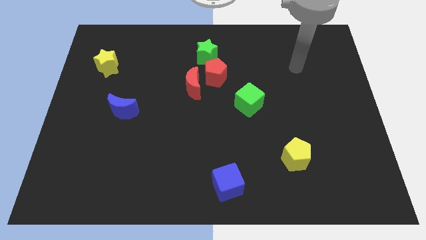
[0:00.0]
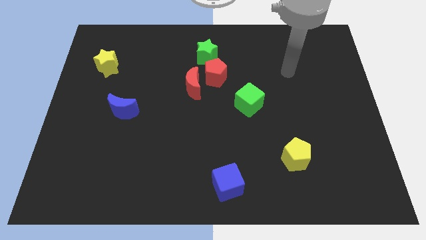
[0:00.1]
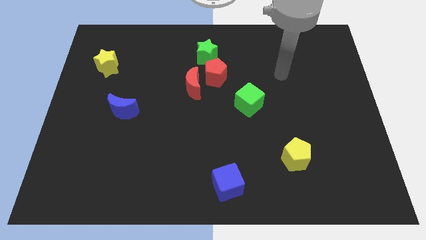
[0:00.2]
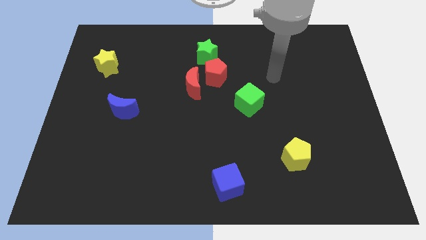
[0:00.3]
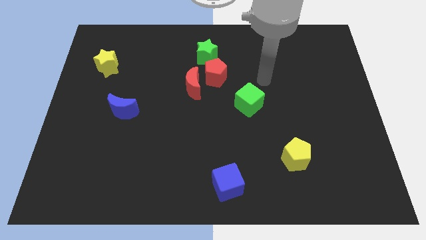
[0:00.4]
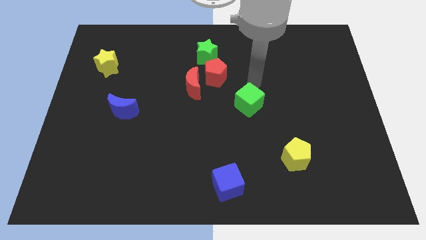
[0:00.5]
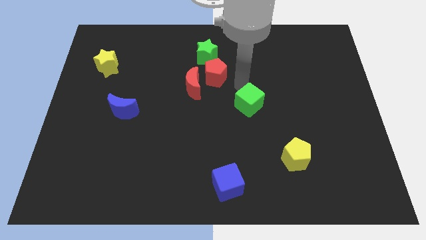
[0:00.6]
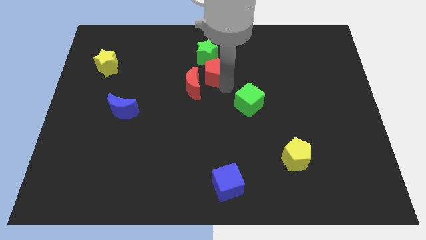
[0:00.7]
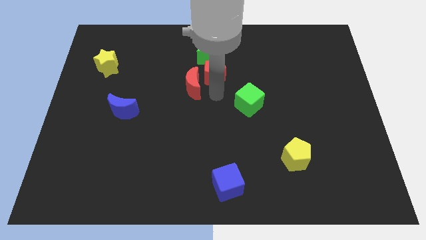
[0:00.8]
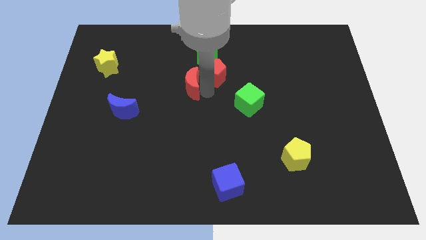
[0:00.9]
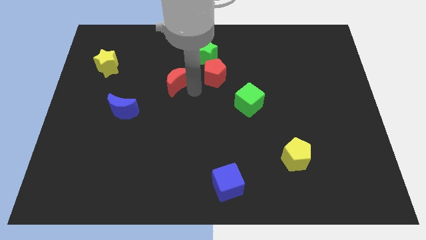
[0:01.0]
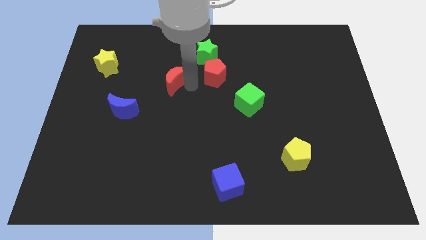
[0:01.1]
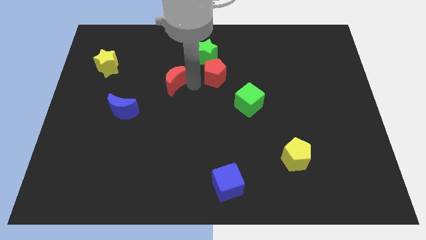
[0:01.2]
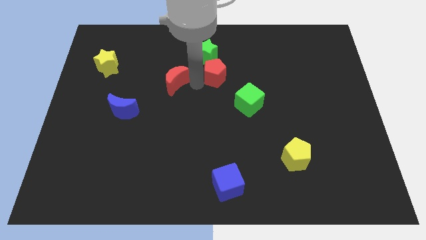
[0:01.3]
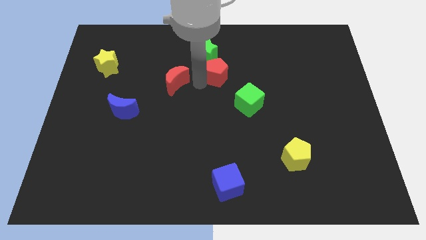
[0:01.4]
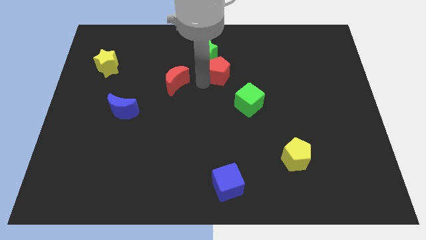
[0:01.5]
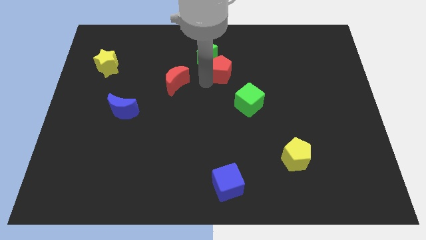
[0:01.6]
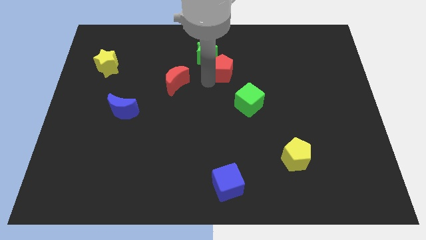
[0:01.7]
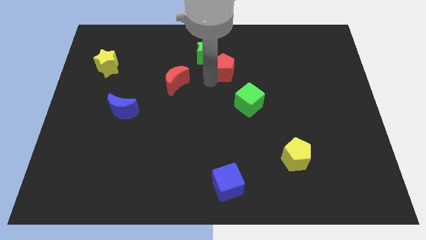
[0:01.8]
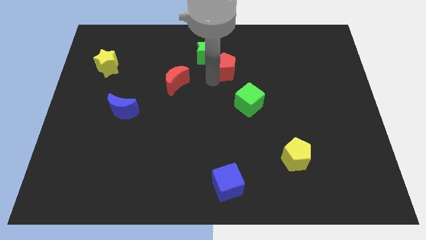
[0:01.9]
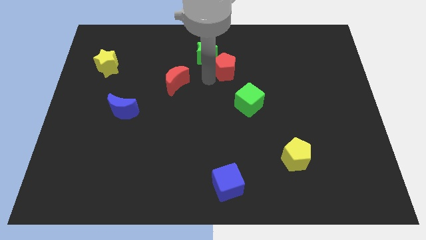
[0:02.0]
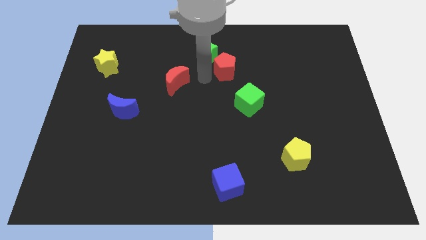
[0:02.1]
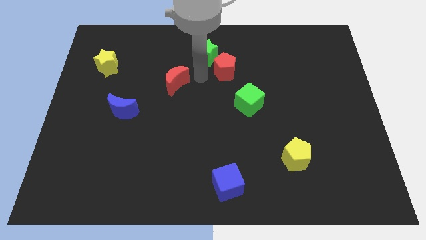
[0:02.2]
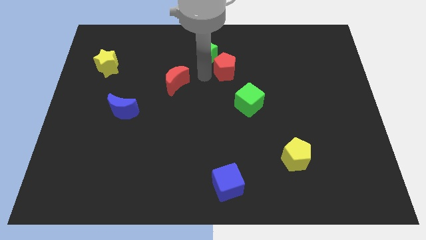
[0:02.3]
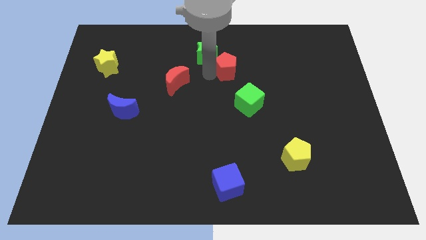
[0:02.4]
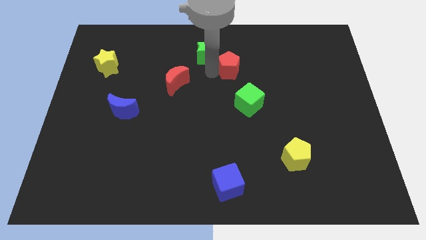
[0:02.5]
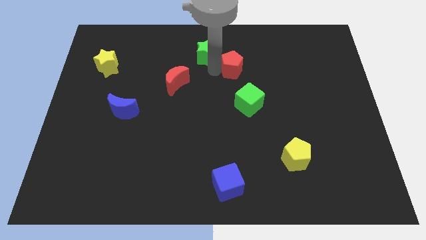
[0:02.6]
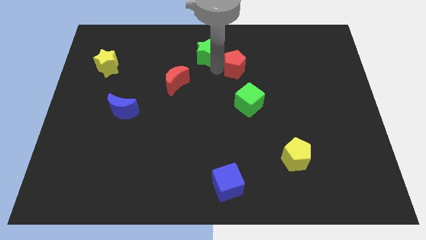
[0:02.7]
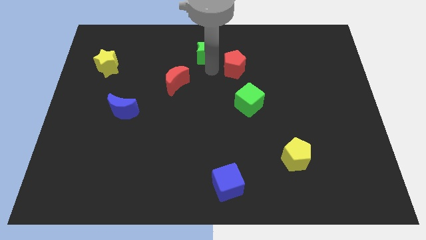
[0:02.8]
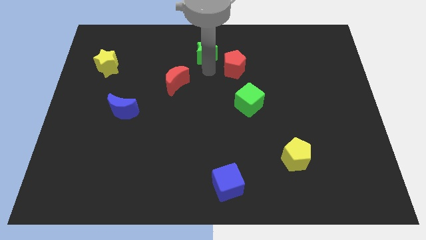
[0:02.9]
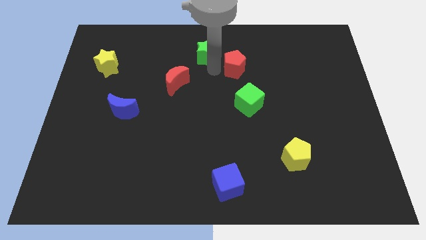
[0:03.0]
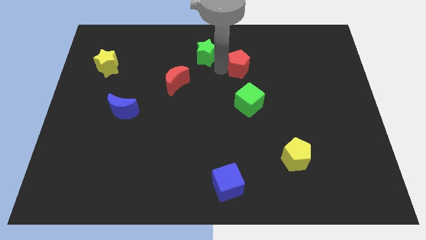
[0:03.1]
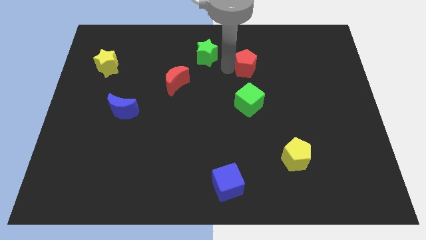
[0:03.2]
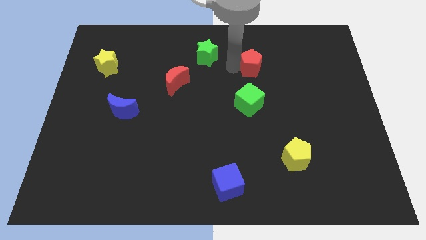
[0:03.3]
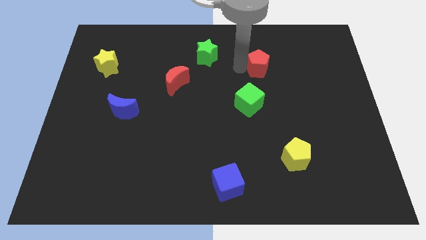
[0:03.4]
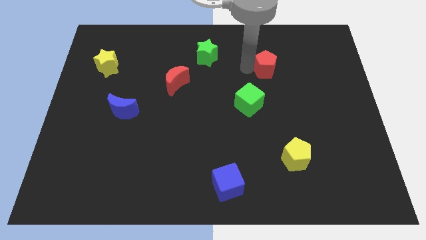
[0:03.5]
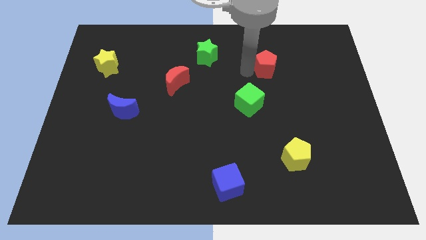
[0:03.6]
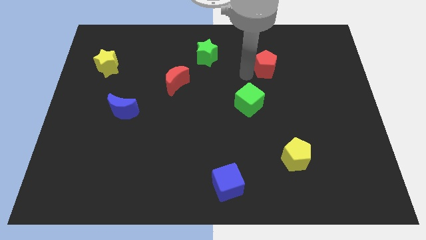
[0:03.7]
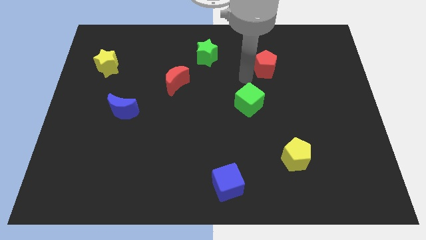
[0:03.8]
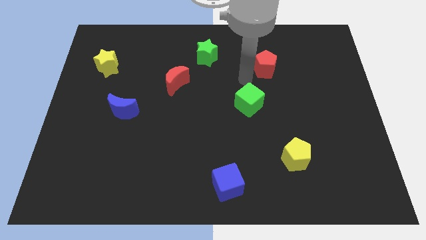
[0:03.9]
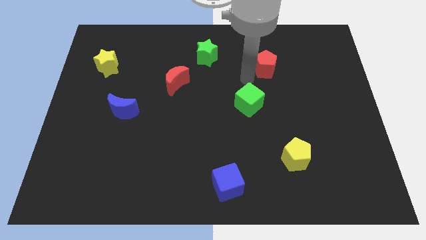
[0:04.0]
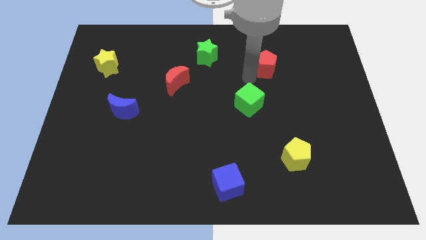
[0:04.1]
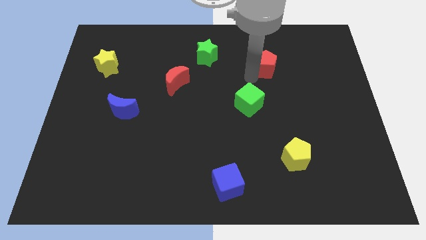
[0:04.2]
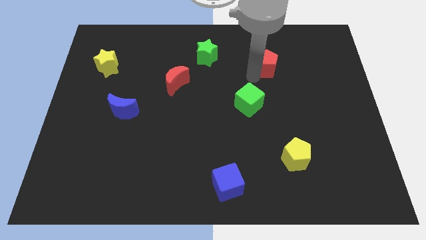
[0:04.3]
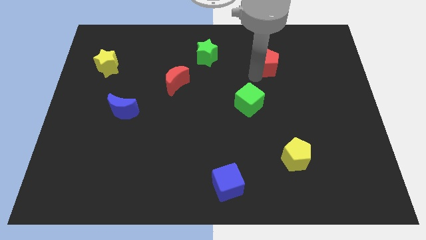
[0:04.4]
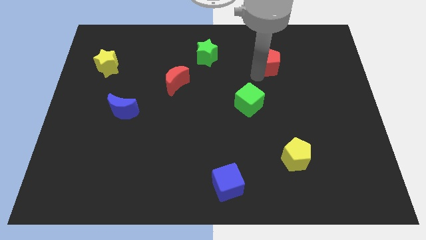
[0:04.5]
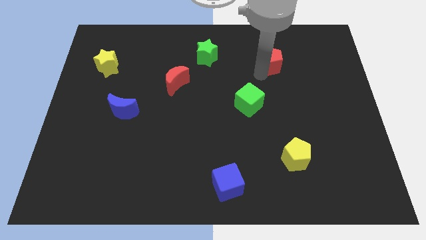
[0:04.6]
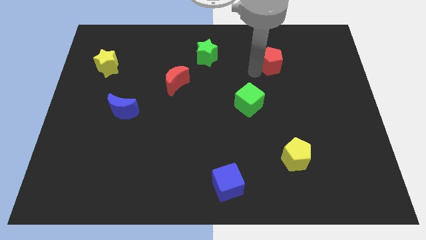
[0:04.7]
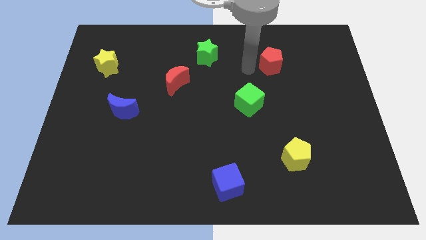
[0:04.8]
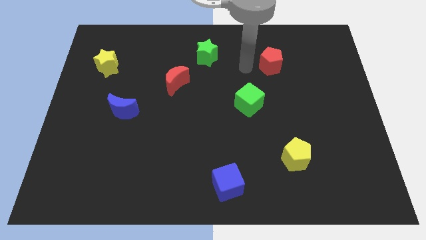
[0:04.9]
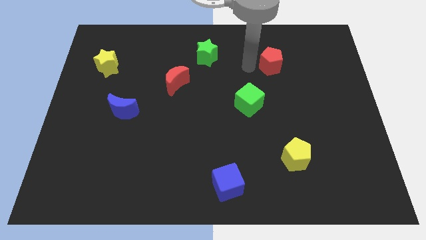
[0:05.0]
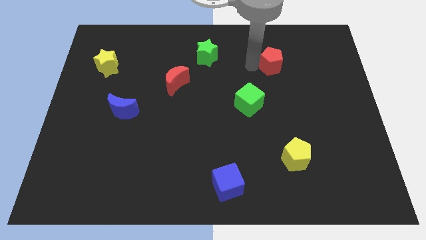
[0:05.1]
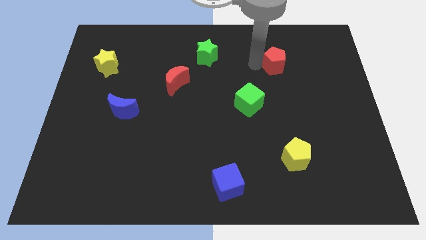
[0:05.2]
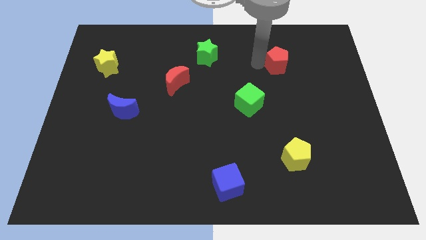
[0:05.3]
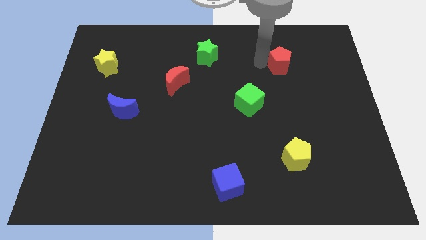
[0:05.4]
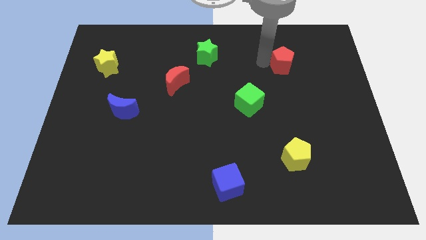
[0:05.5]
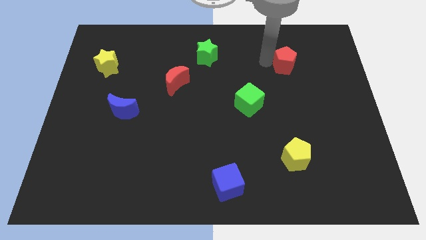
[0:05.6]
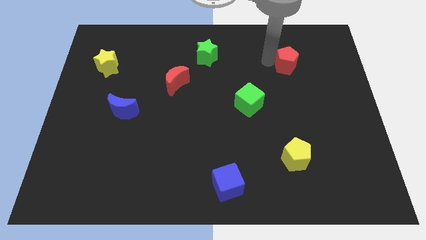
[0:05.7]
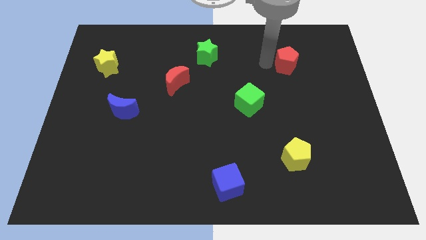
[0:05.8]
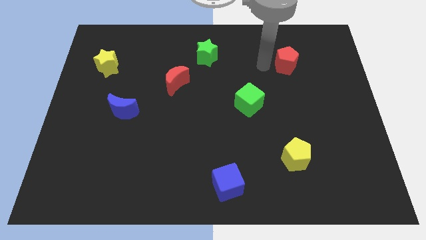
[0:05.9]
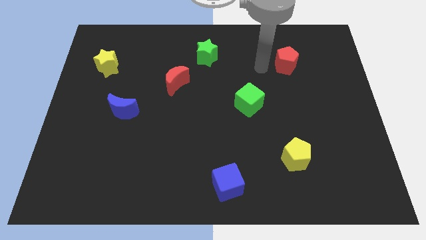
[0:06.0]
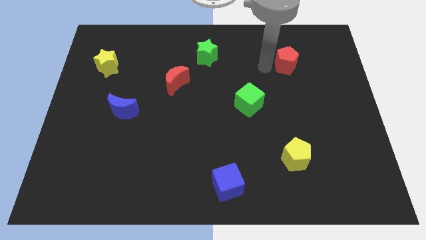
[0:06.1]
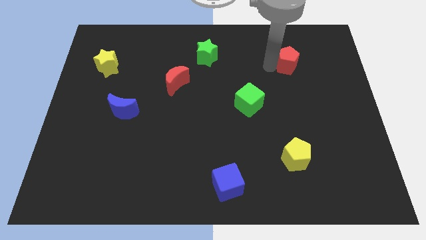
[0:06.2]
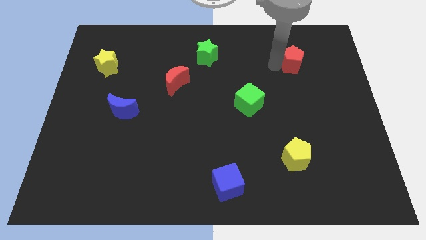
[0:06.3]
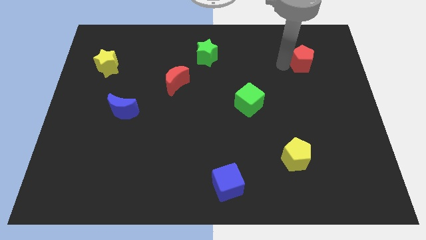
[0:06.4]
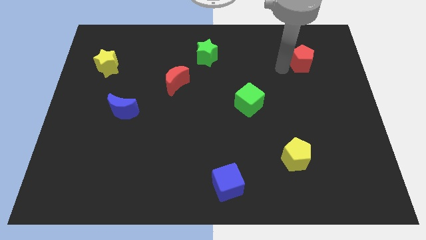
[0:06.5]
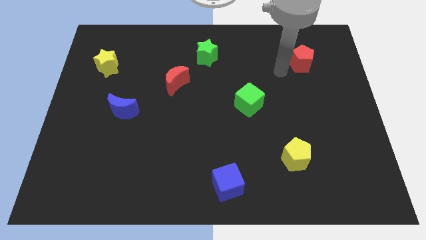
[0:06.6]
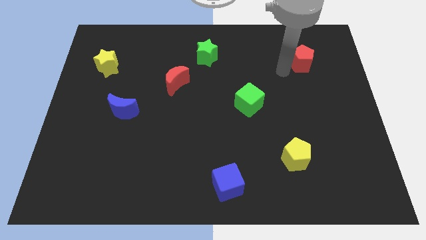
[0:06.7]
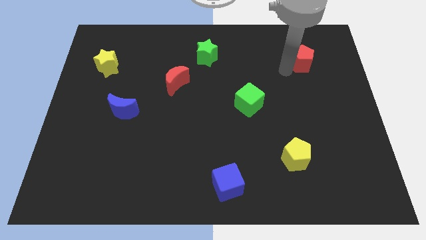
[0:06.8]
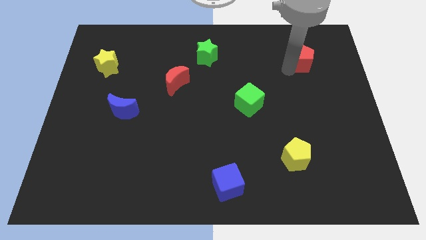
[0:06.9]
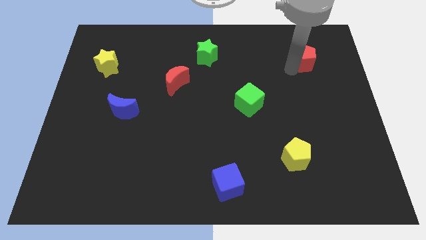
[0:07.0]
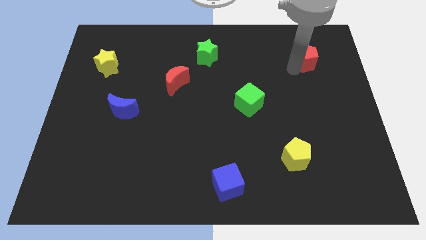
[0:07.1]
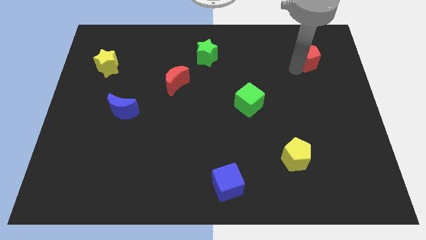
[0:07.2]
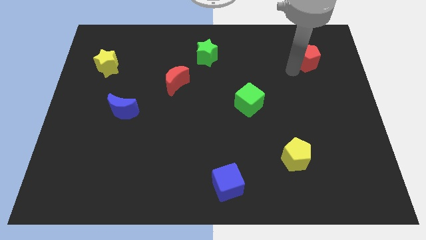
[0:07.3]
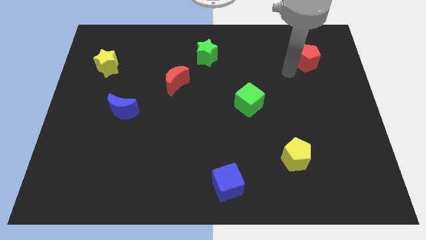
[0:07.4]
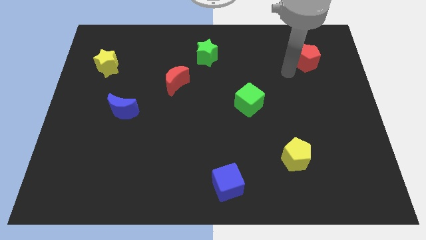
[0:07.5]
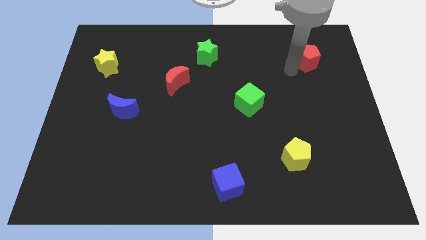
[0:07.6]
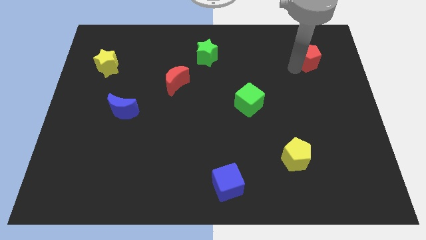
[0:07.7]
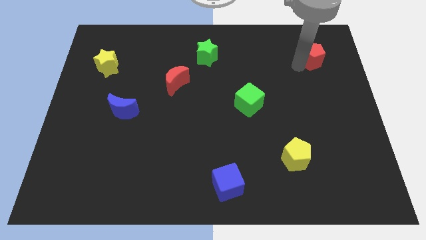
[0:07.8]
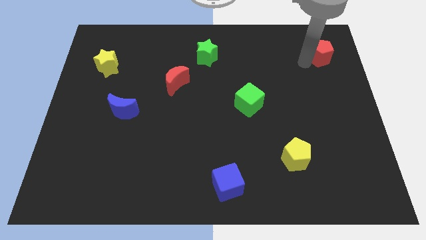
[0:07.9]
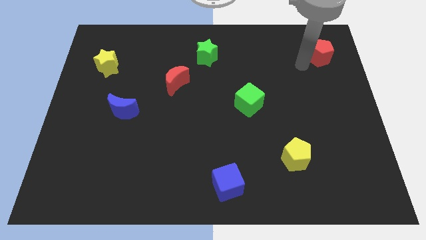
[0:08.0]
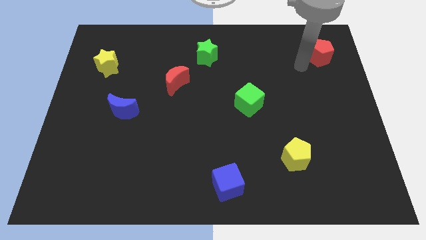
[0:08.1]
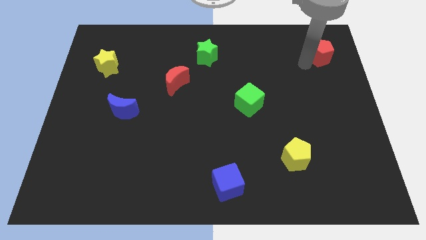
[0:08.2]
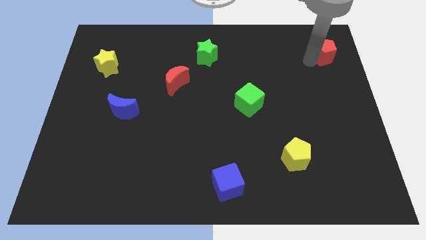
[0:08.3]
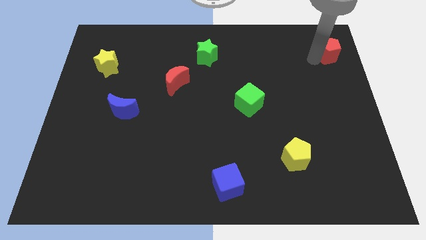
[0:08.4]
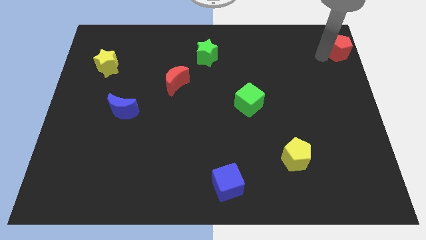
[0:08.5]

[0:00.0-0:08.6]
put the red pentagon to the top right of the board
